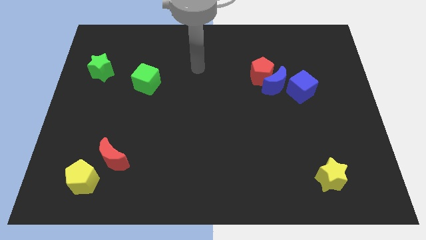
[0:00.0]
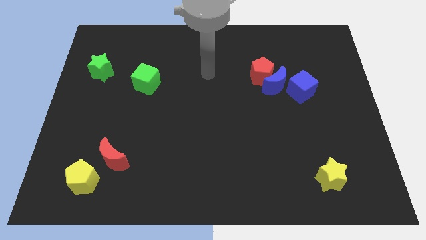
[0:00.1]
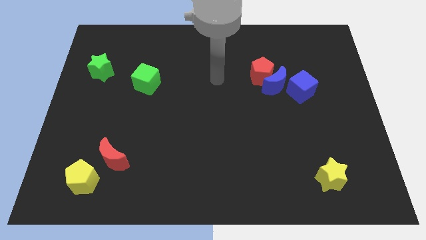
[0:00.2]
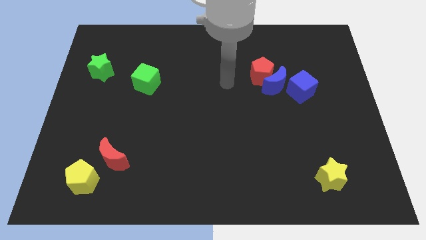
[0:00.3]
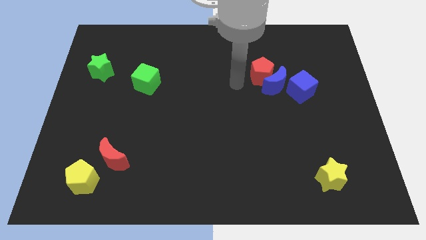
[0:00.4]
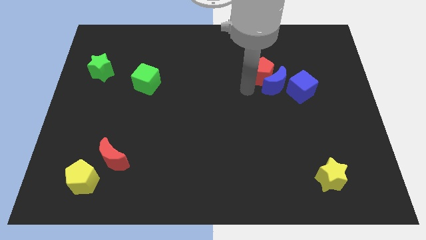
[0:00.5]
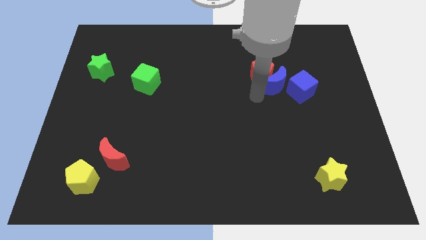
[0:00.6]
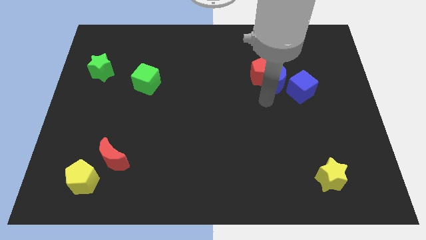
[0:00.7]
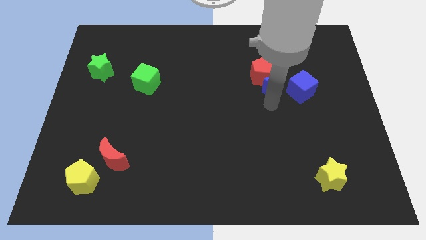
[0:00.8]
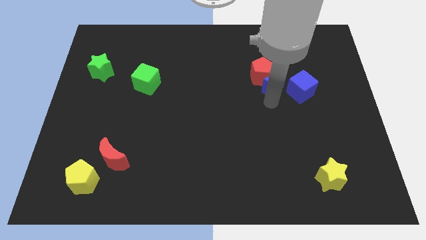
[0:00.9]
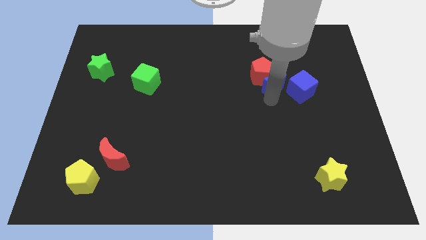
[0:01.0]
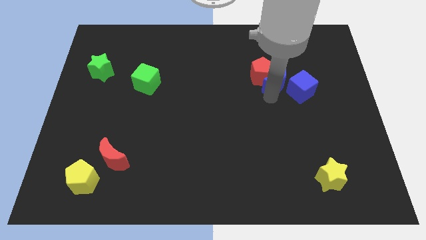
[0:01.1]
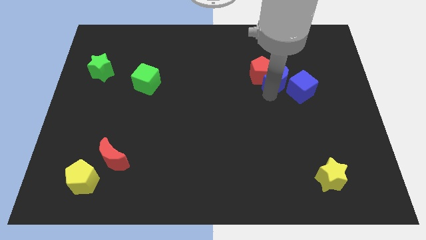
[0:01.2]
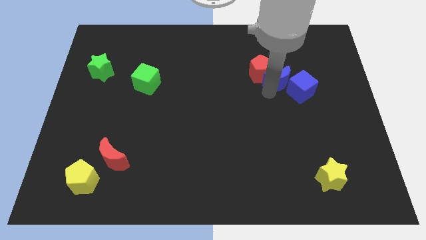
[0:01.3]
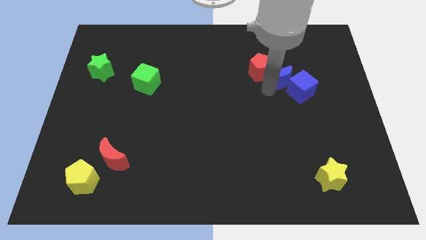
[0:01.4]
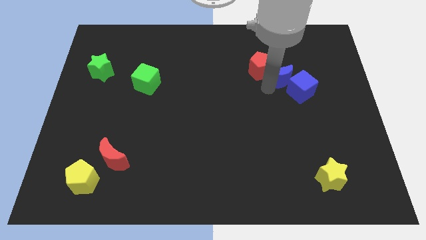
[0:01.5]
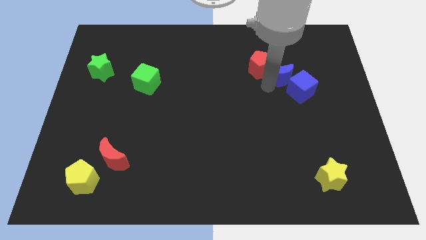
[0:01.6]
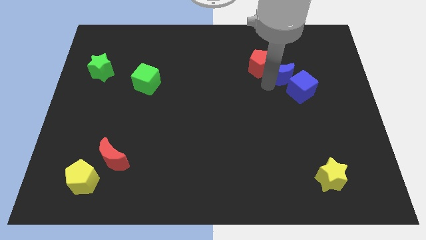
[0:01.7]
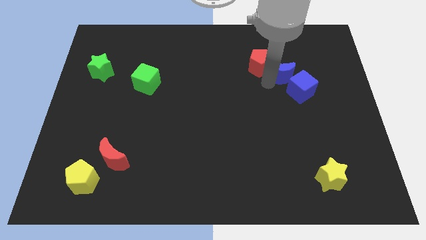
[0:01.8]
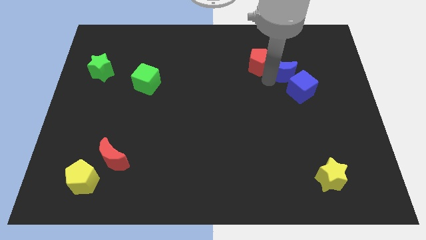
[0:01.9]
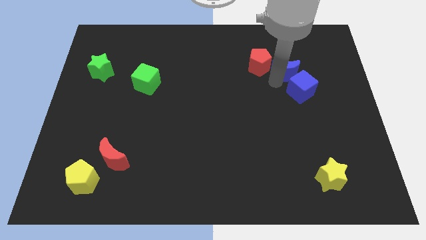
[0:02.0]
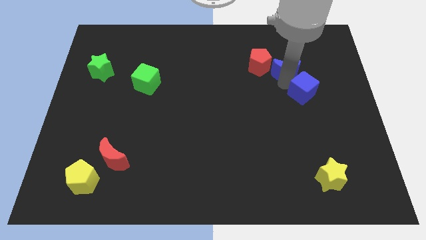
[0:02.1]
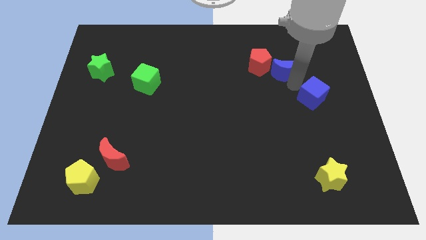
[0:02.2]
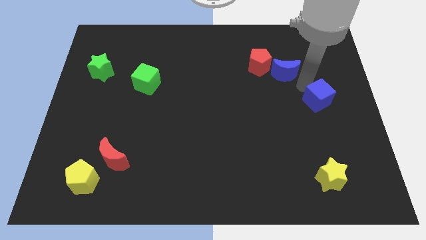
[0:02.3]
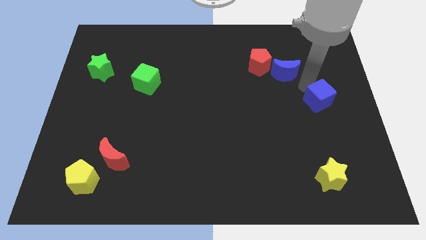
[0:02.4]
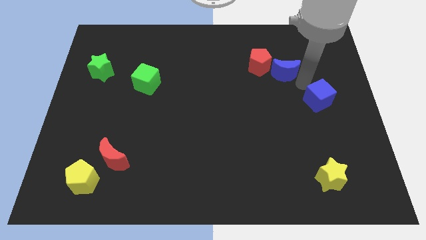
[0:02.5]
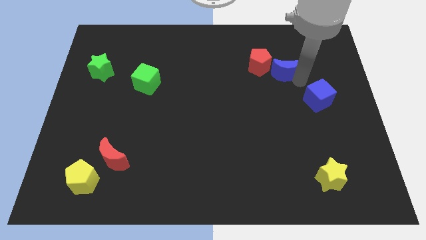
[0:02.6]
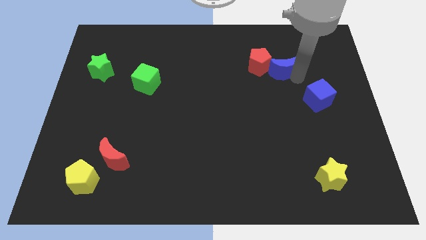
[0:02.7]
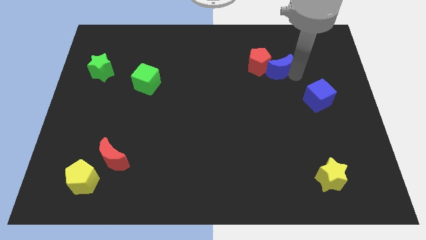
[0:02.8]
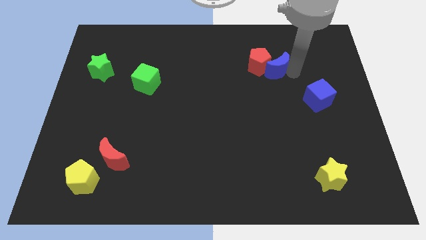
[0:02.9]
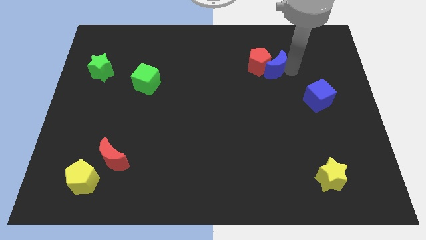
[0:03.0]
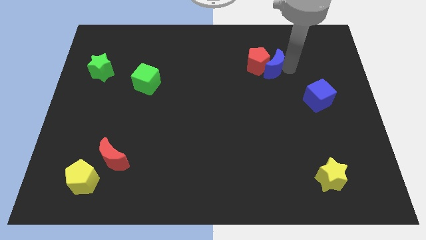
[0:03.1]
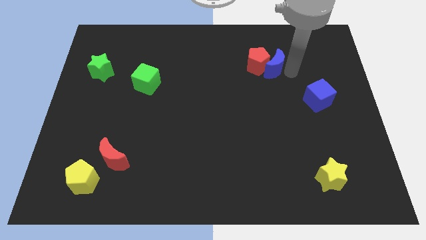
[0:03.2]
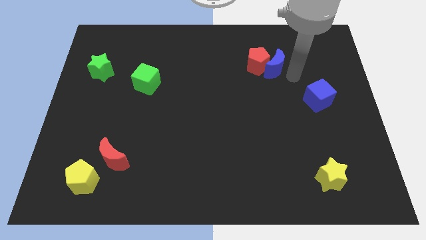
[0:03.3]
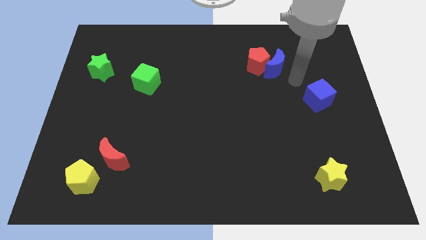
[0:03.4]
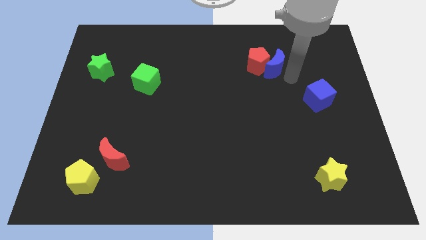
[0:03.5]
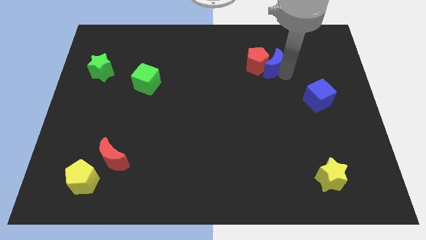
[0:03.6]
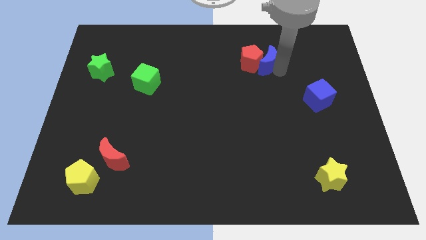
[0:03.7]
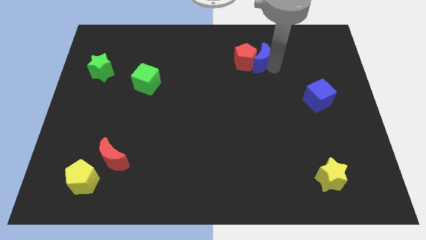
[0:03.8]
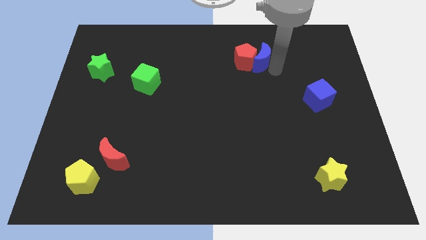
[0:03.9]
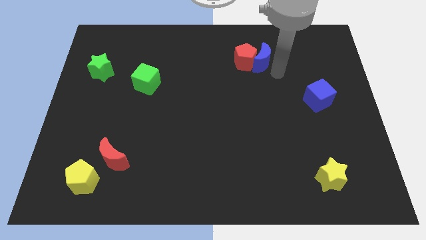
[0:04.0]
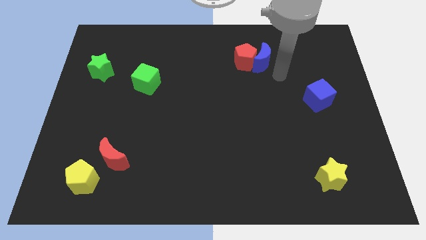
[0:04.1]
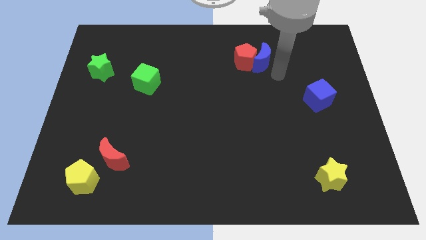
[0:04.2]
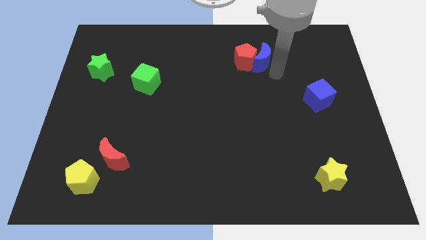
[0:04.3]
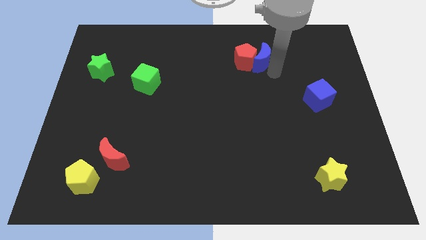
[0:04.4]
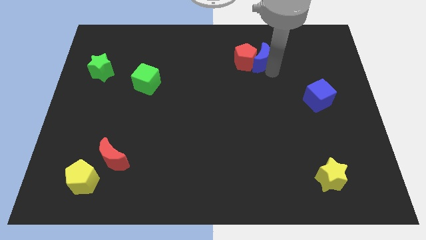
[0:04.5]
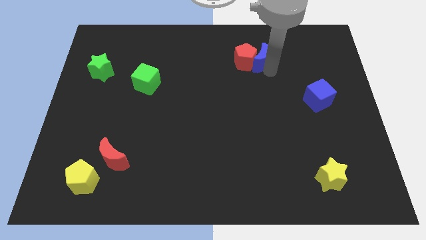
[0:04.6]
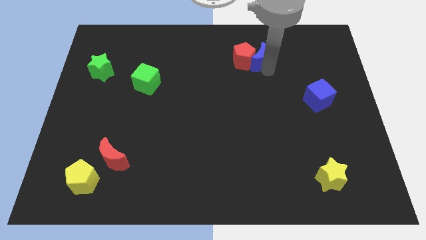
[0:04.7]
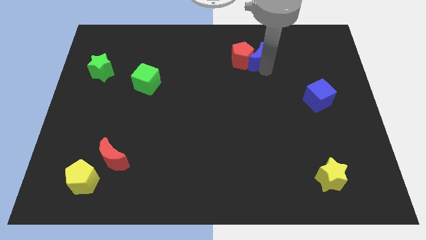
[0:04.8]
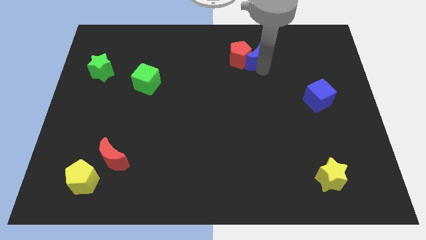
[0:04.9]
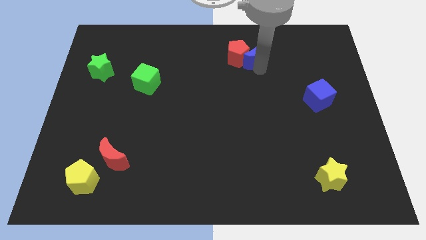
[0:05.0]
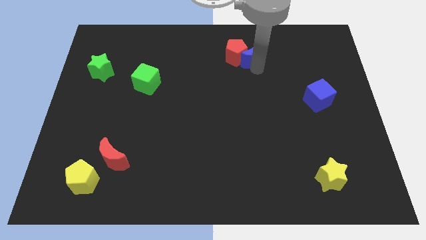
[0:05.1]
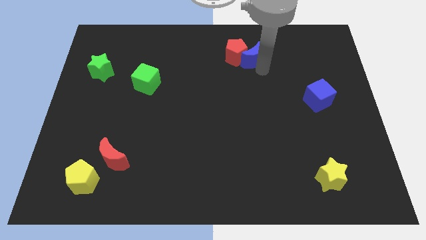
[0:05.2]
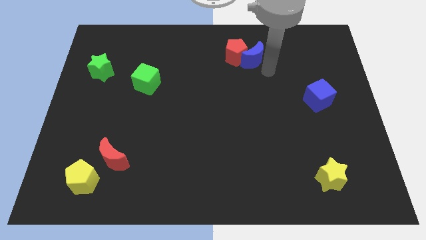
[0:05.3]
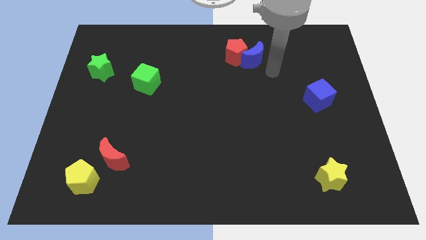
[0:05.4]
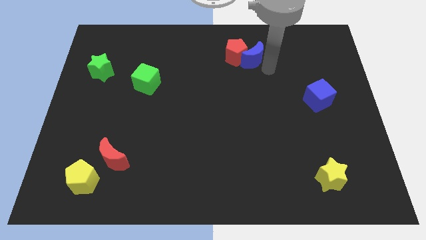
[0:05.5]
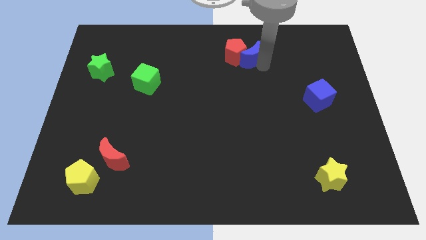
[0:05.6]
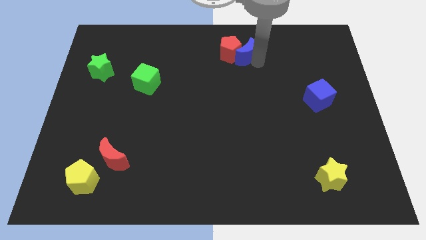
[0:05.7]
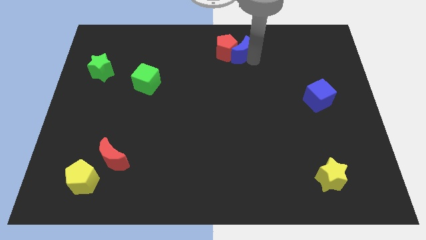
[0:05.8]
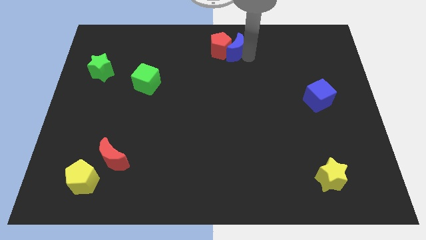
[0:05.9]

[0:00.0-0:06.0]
push the blue moon to the towards your base
